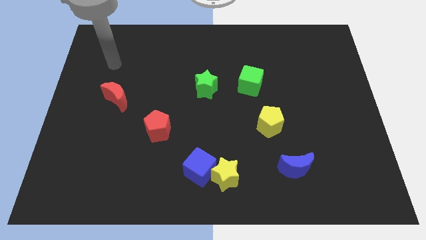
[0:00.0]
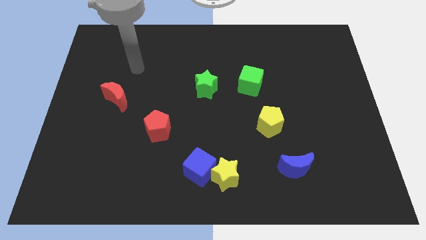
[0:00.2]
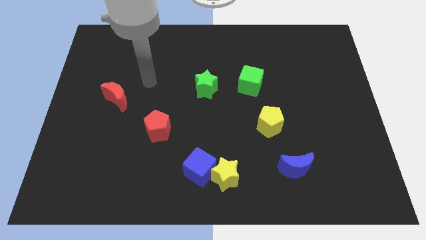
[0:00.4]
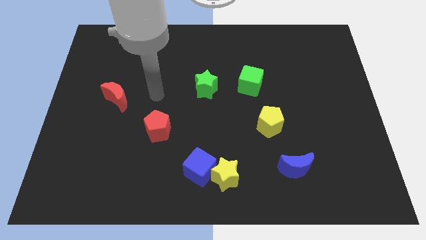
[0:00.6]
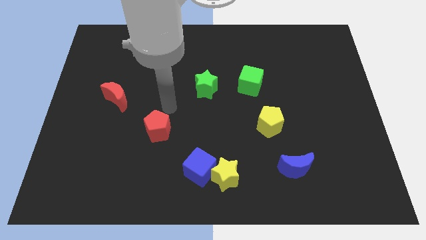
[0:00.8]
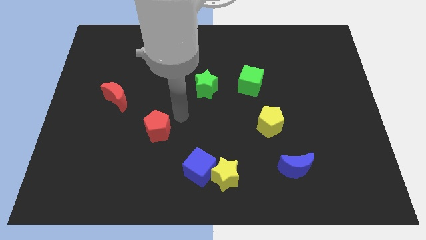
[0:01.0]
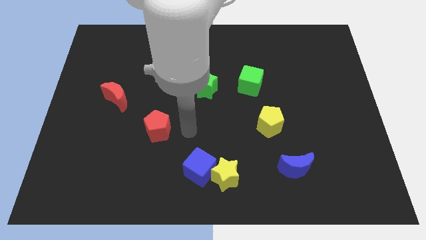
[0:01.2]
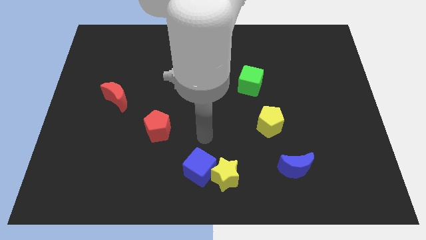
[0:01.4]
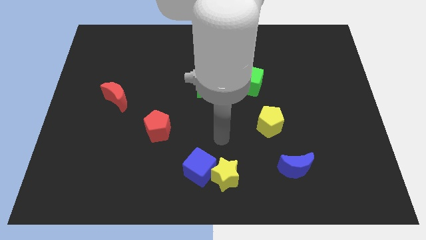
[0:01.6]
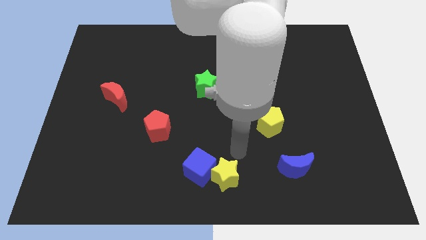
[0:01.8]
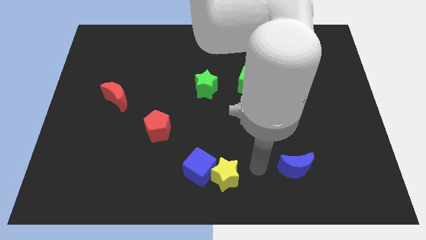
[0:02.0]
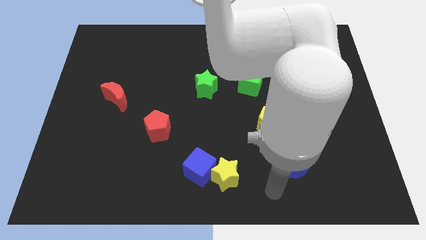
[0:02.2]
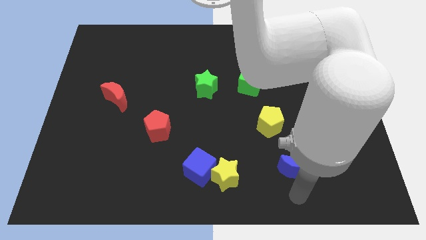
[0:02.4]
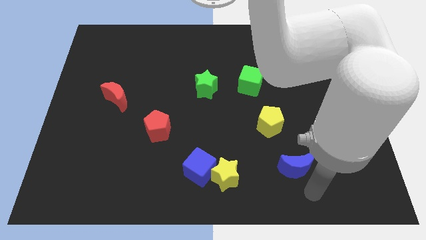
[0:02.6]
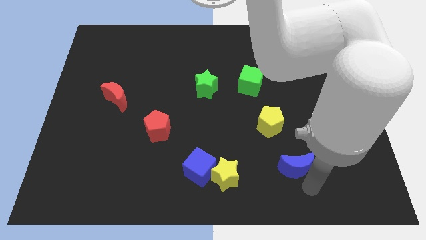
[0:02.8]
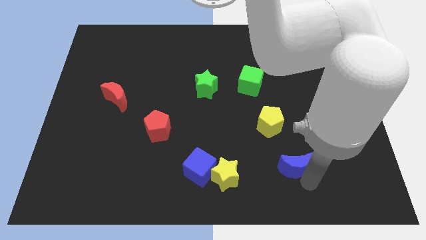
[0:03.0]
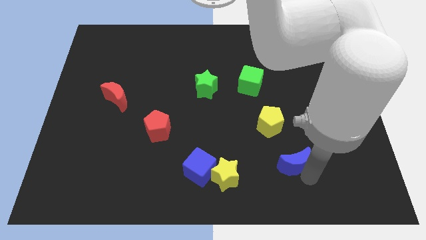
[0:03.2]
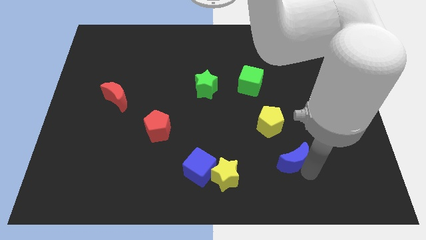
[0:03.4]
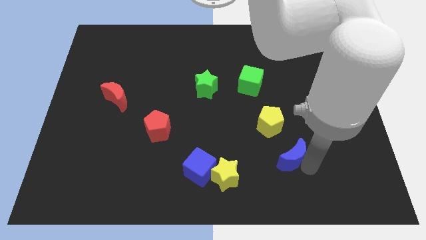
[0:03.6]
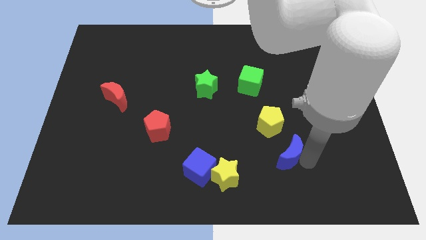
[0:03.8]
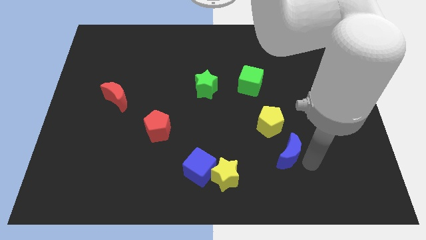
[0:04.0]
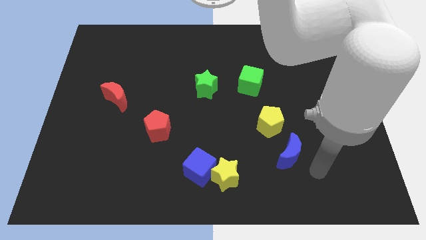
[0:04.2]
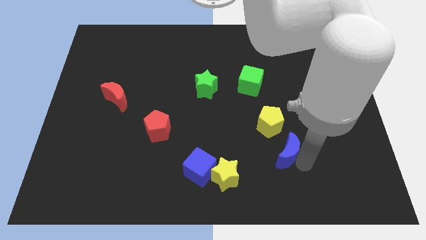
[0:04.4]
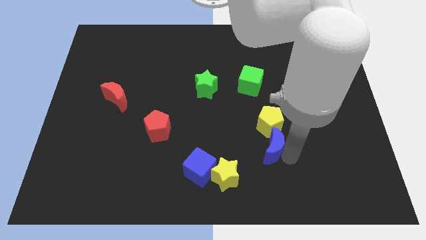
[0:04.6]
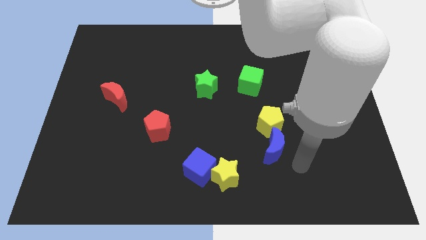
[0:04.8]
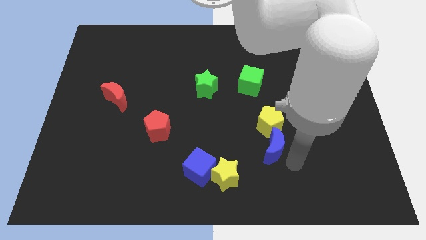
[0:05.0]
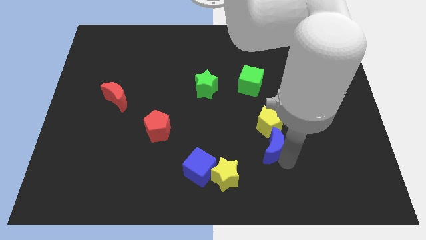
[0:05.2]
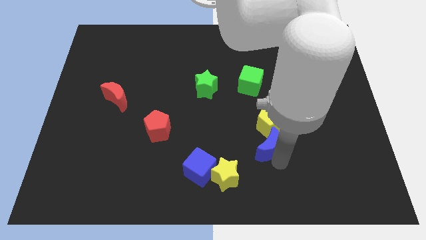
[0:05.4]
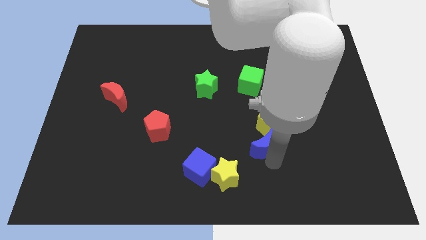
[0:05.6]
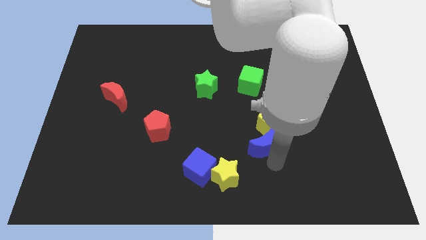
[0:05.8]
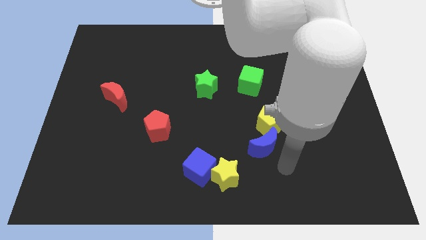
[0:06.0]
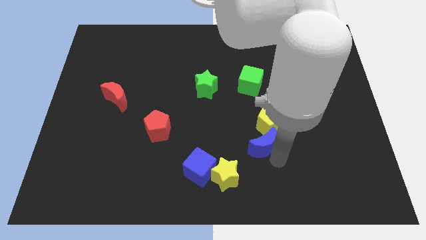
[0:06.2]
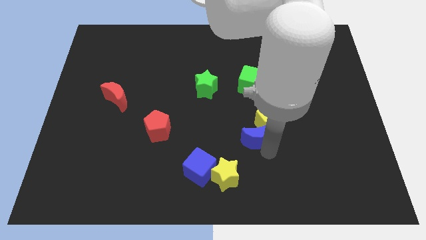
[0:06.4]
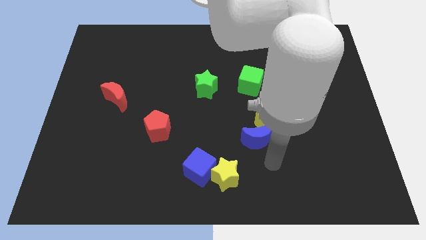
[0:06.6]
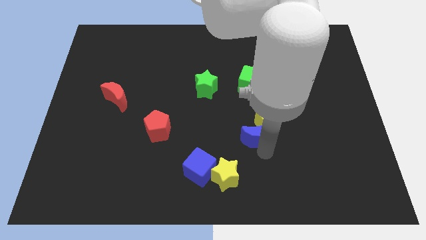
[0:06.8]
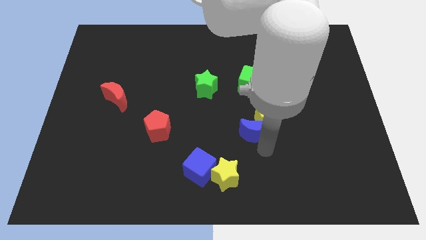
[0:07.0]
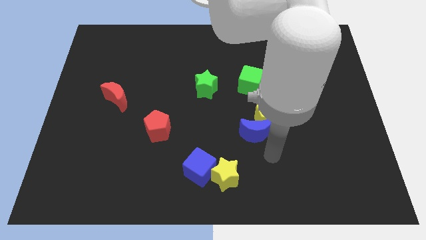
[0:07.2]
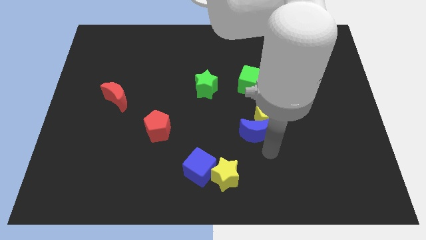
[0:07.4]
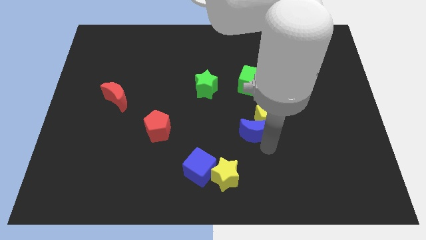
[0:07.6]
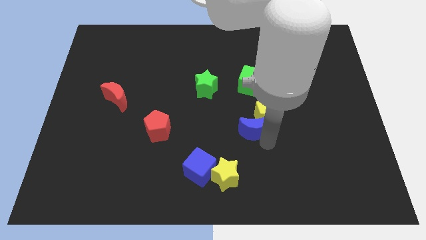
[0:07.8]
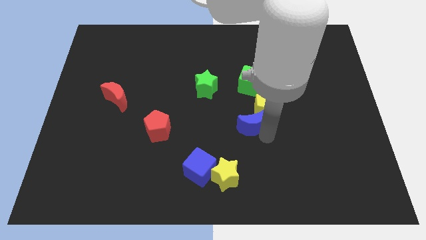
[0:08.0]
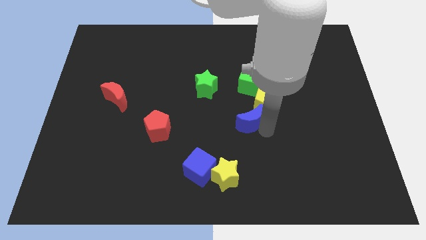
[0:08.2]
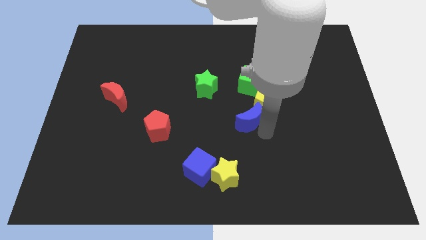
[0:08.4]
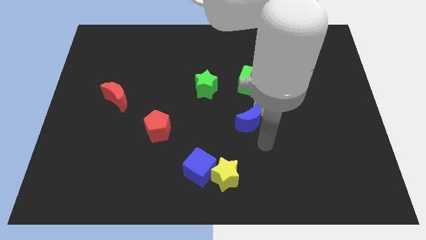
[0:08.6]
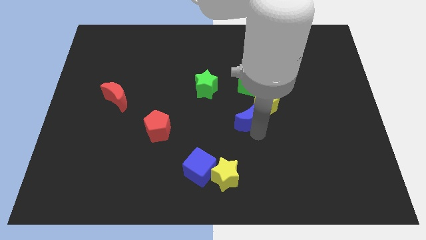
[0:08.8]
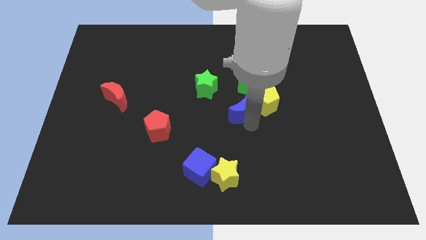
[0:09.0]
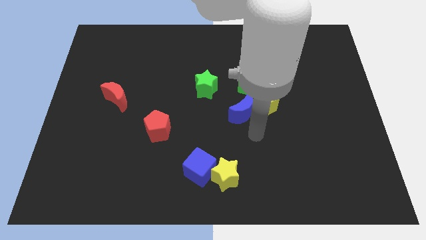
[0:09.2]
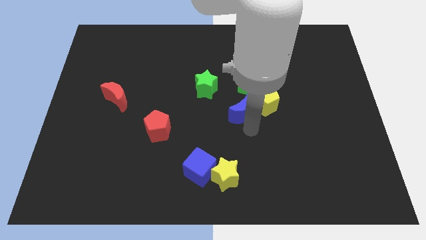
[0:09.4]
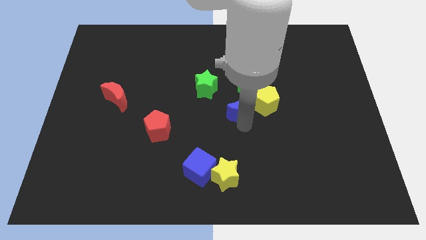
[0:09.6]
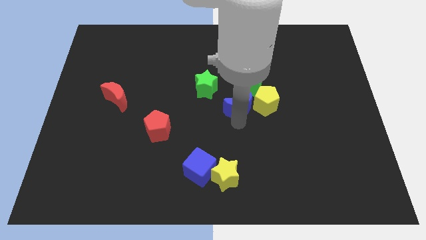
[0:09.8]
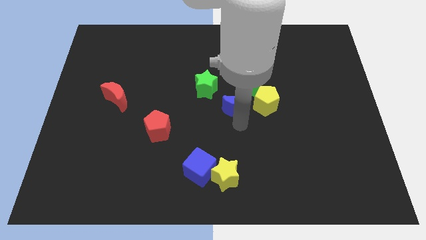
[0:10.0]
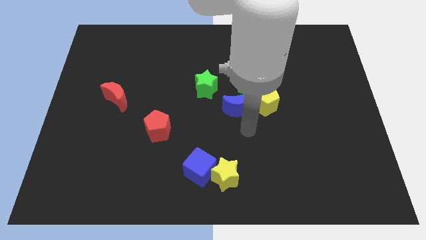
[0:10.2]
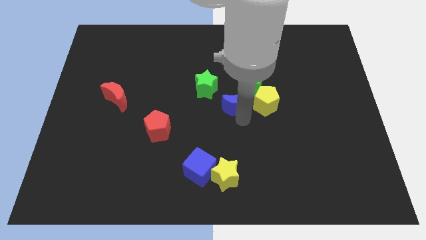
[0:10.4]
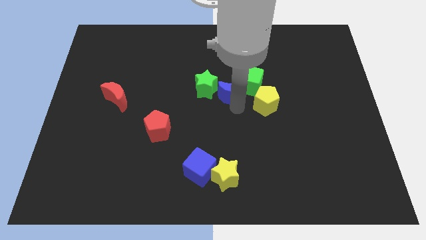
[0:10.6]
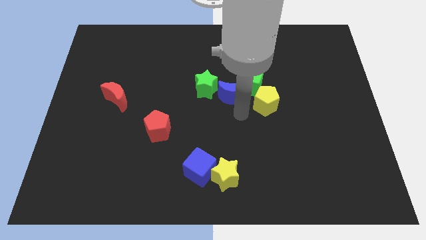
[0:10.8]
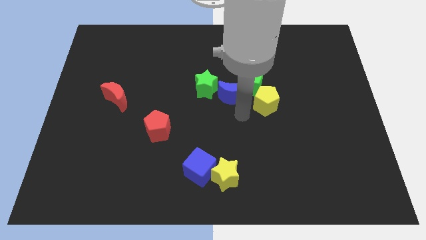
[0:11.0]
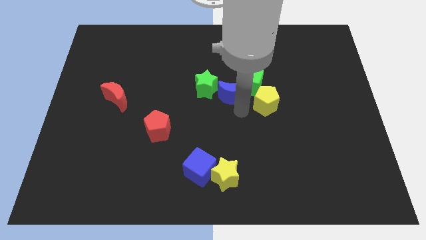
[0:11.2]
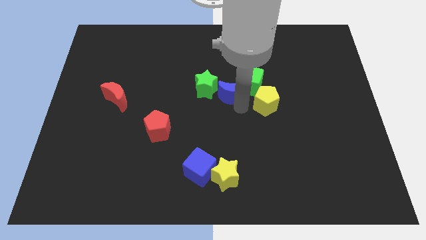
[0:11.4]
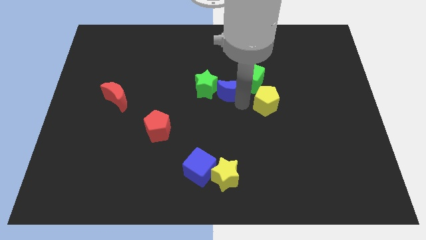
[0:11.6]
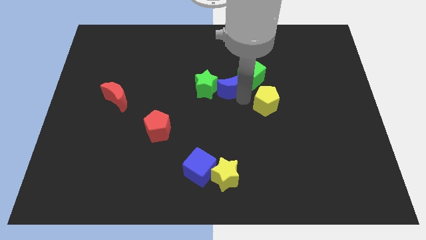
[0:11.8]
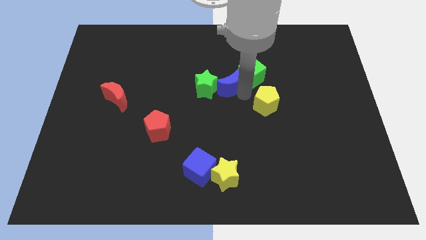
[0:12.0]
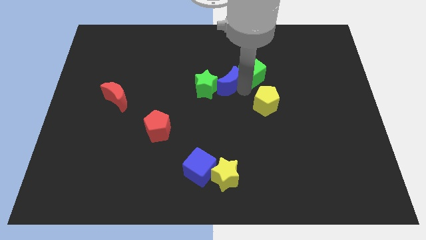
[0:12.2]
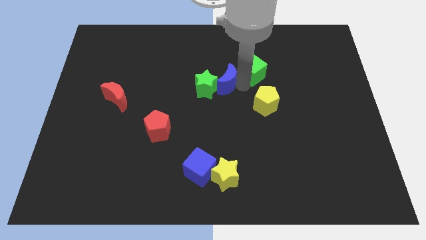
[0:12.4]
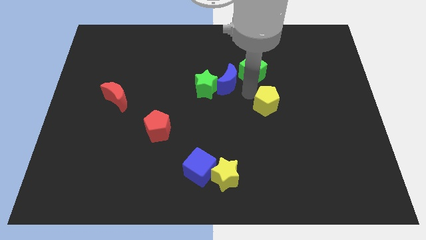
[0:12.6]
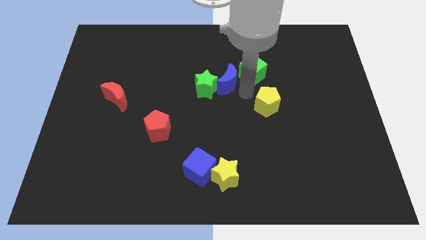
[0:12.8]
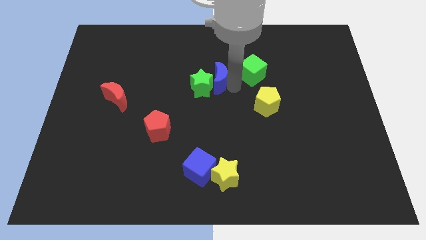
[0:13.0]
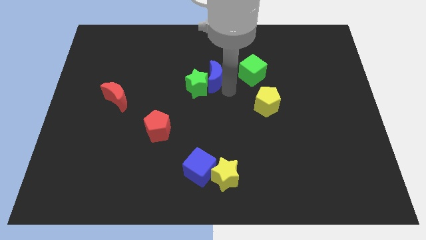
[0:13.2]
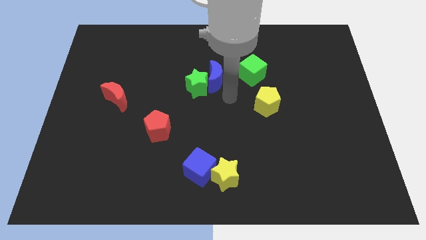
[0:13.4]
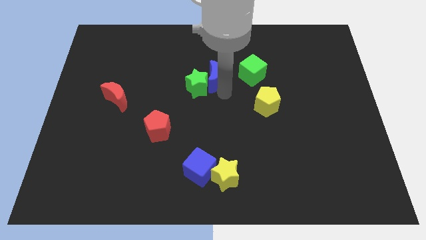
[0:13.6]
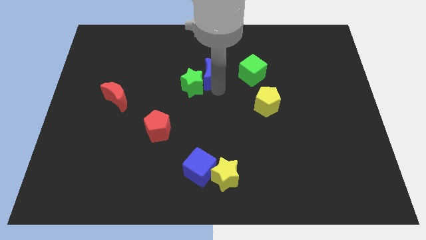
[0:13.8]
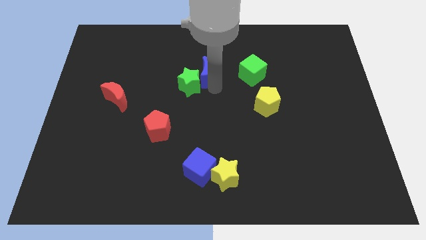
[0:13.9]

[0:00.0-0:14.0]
slide the blue moon to the top of the green star
